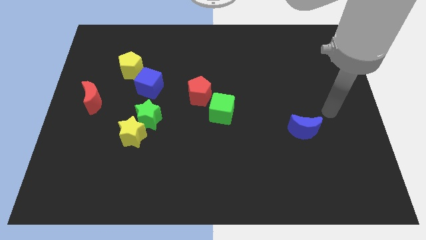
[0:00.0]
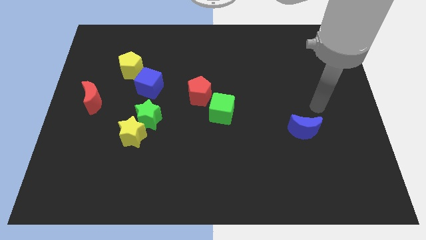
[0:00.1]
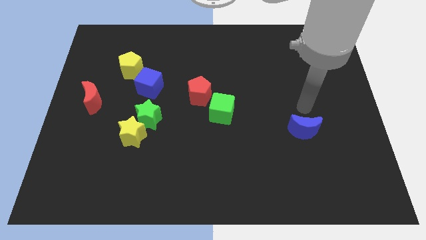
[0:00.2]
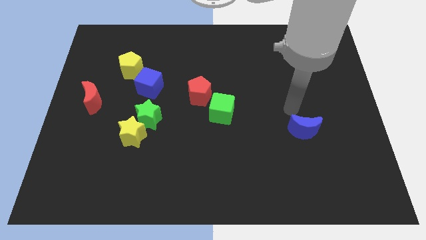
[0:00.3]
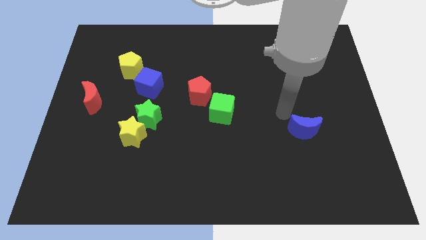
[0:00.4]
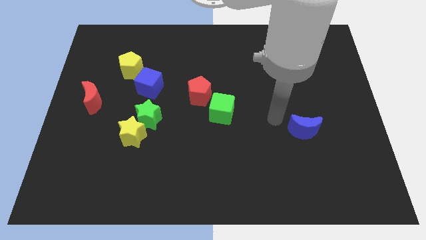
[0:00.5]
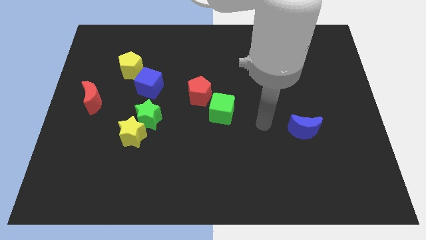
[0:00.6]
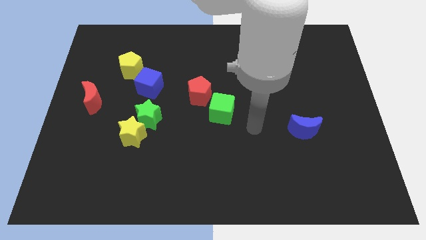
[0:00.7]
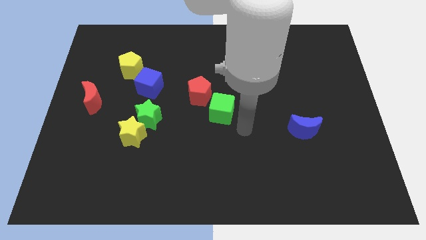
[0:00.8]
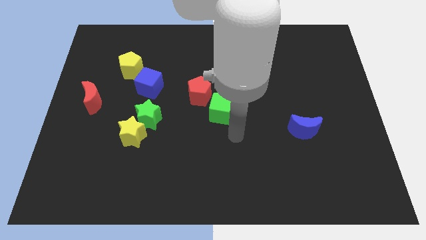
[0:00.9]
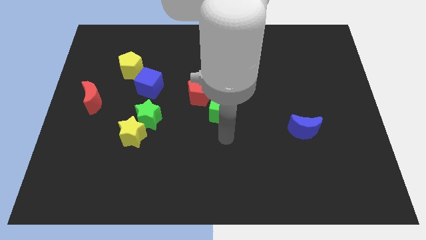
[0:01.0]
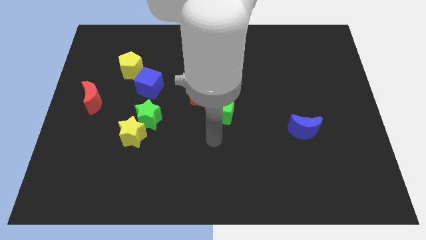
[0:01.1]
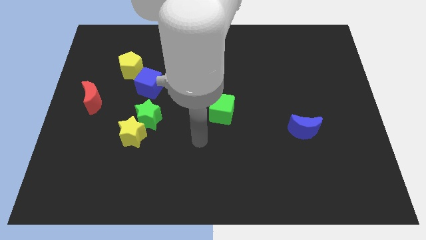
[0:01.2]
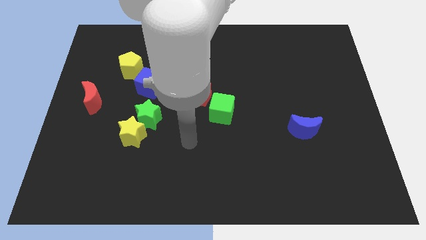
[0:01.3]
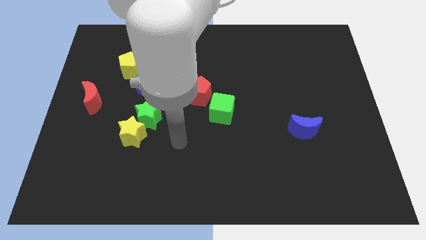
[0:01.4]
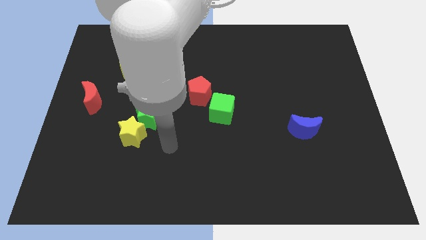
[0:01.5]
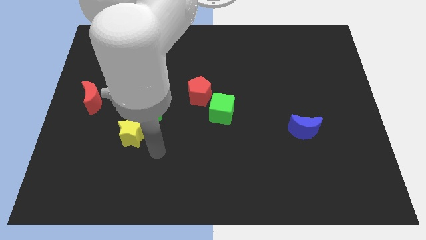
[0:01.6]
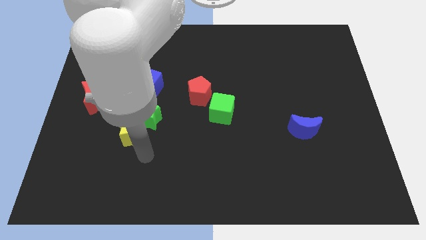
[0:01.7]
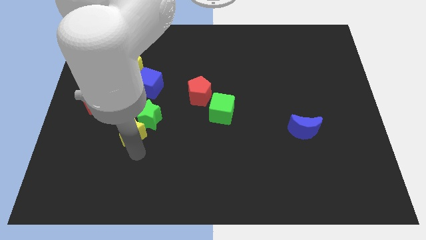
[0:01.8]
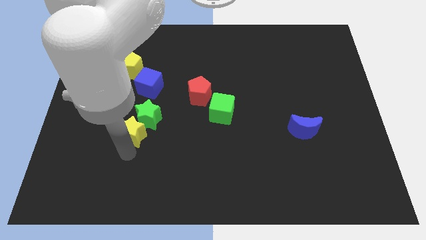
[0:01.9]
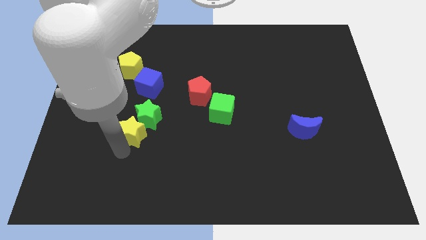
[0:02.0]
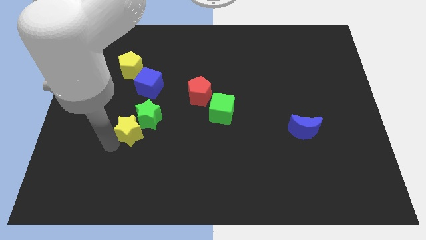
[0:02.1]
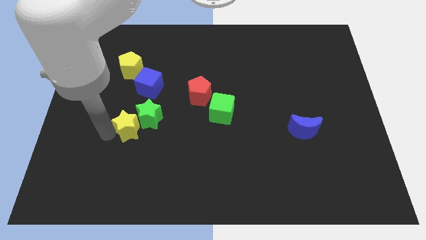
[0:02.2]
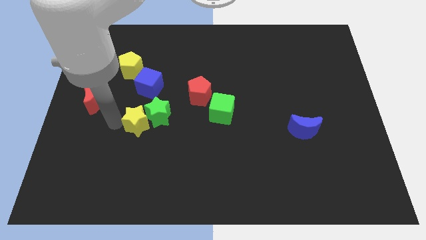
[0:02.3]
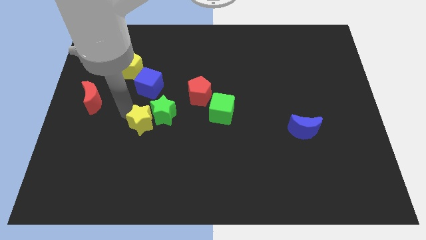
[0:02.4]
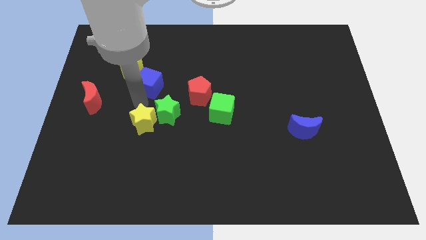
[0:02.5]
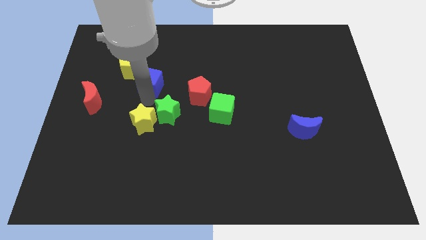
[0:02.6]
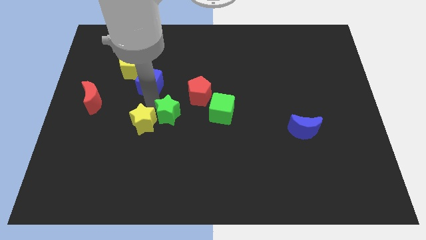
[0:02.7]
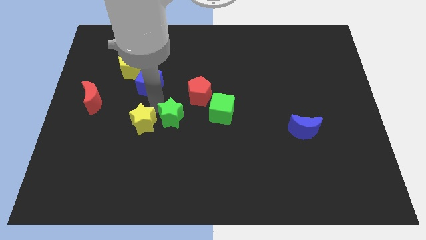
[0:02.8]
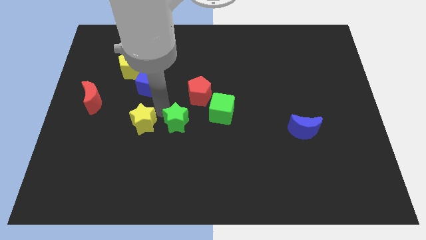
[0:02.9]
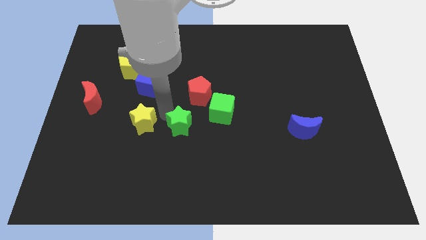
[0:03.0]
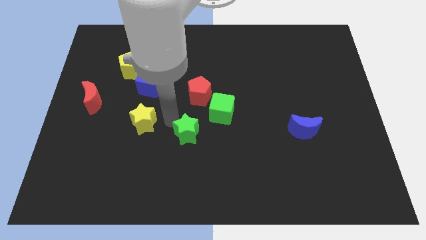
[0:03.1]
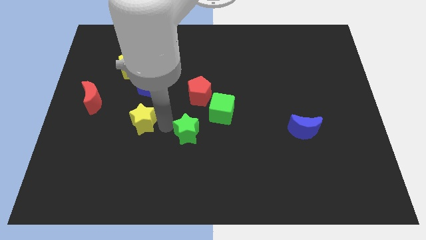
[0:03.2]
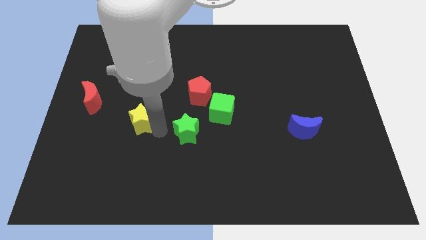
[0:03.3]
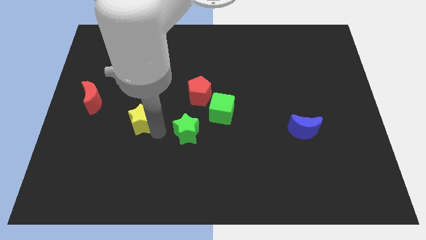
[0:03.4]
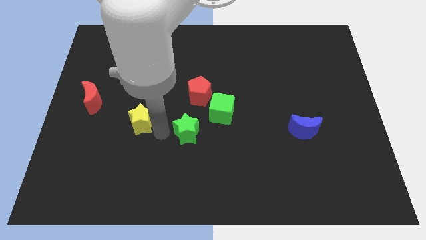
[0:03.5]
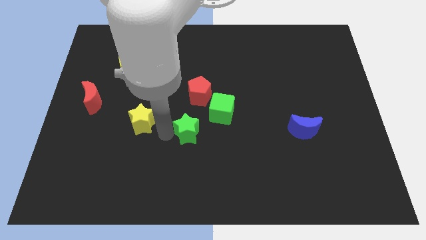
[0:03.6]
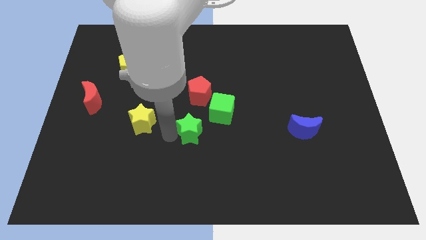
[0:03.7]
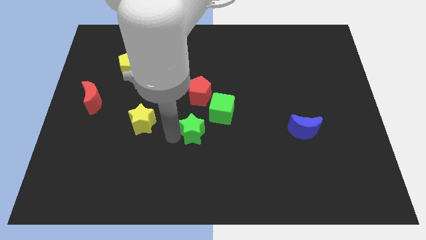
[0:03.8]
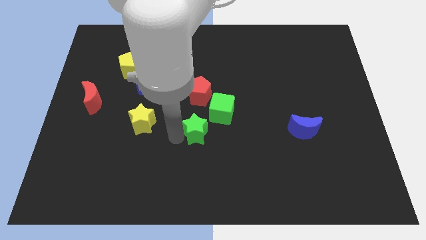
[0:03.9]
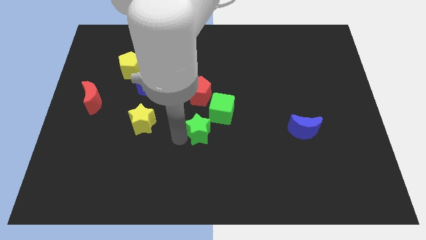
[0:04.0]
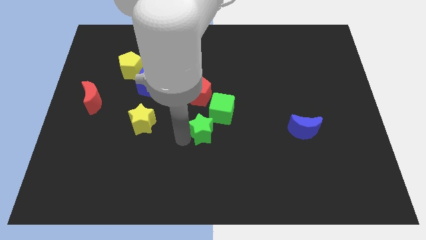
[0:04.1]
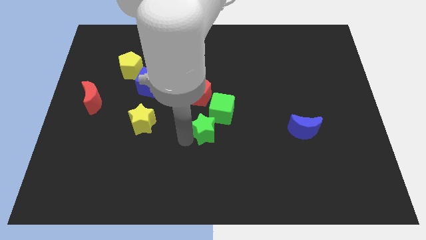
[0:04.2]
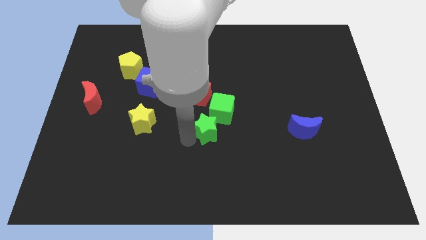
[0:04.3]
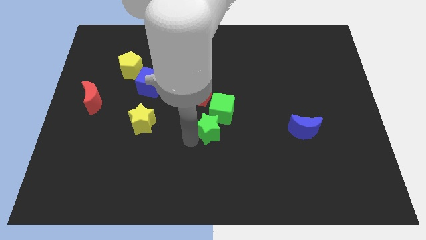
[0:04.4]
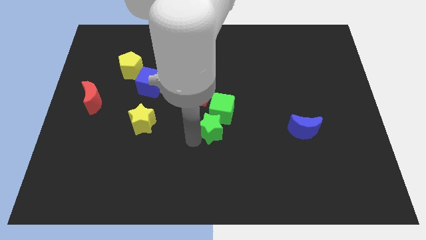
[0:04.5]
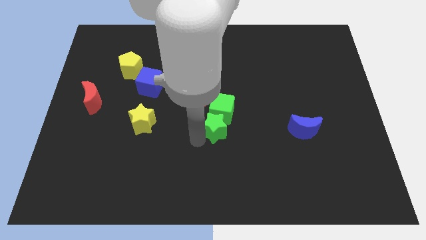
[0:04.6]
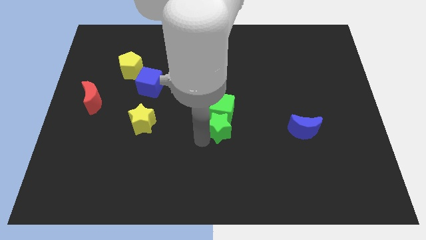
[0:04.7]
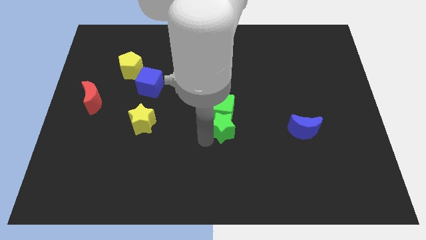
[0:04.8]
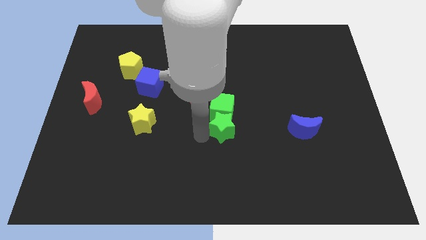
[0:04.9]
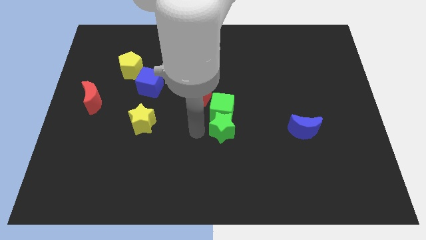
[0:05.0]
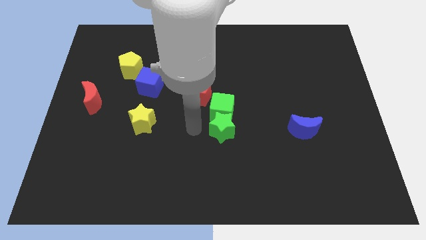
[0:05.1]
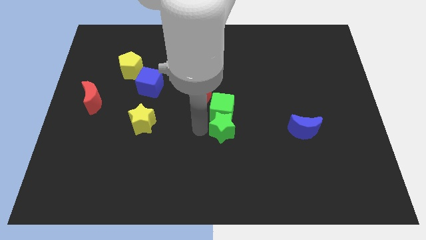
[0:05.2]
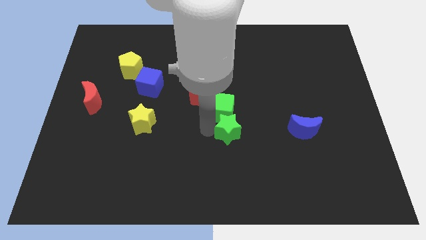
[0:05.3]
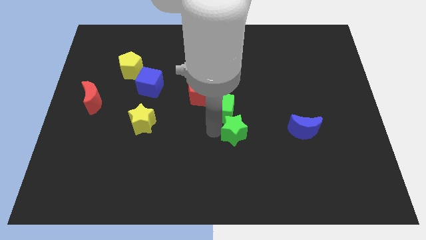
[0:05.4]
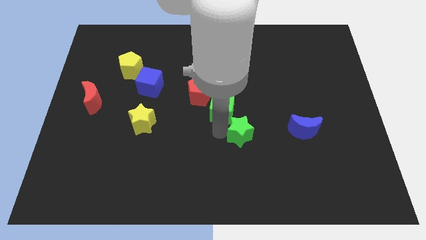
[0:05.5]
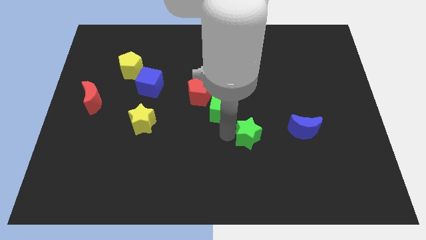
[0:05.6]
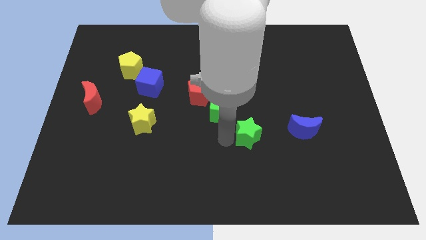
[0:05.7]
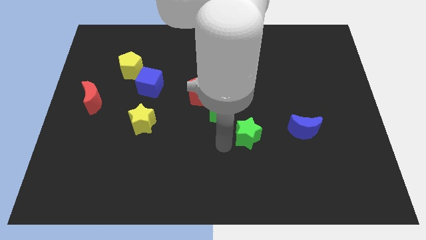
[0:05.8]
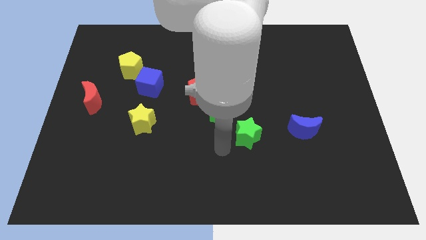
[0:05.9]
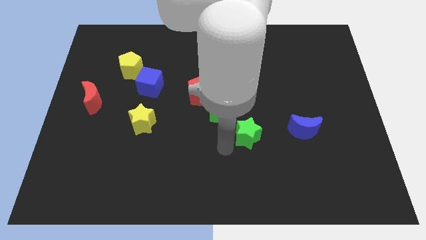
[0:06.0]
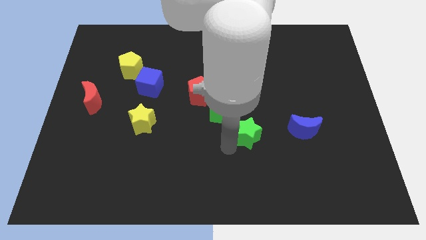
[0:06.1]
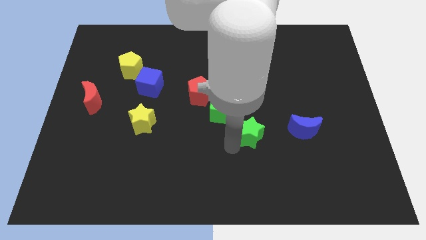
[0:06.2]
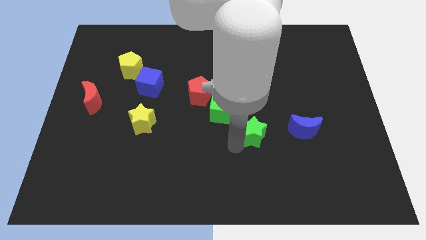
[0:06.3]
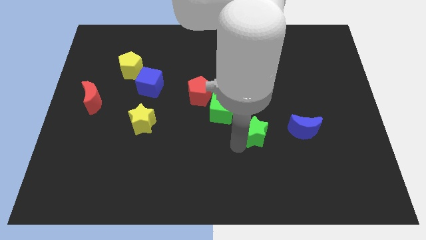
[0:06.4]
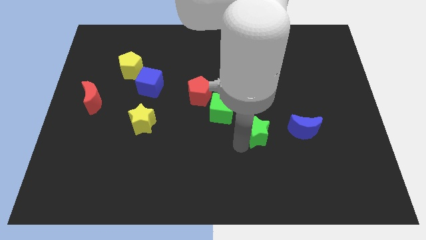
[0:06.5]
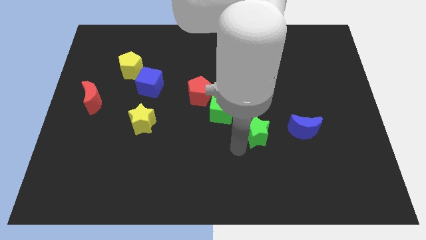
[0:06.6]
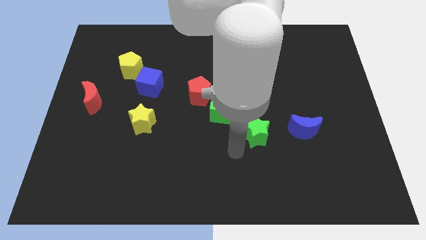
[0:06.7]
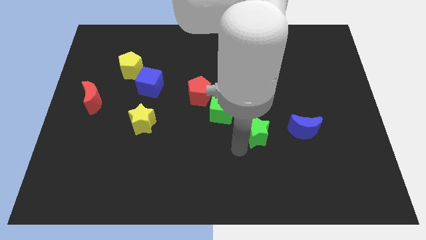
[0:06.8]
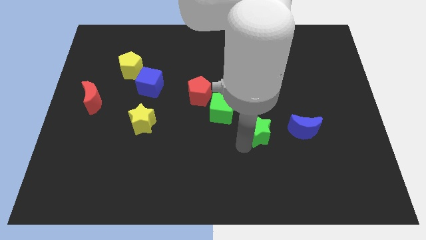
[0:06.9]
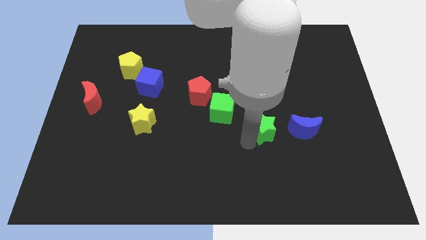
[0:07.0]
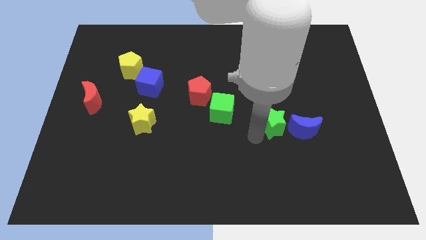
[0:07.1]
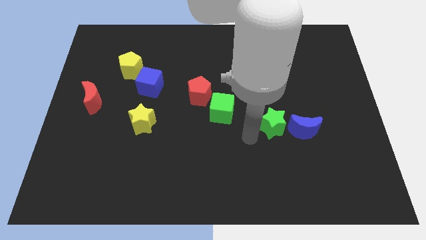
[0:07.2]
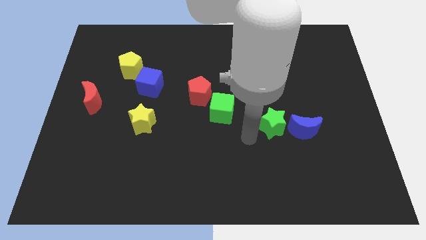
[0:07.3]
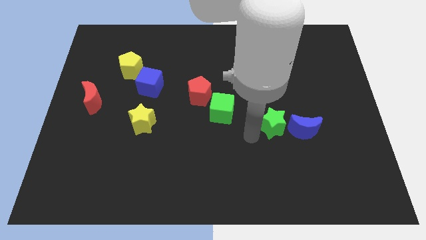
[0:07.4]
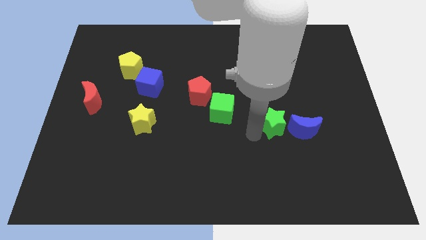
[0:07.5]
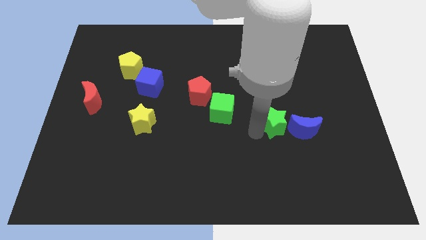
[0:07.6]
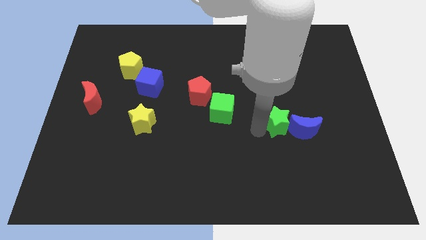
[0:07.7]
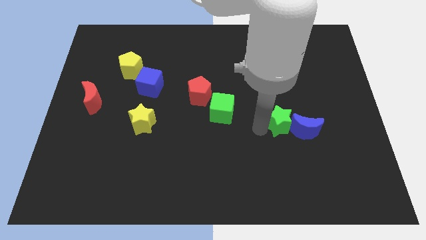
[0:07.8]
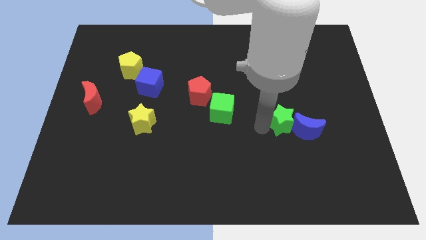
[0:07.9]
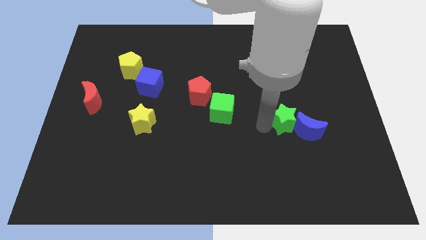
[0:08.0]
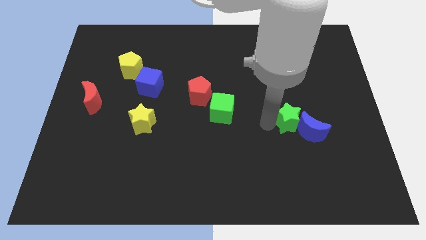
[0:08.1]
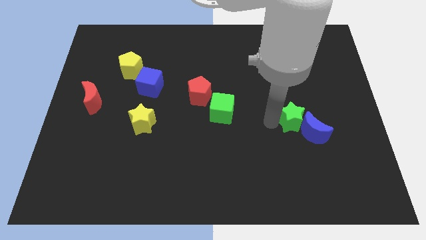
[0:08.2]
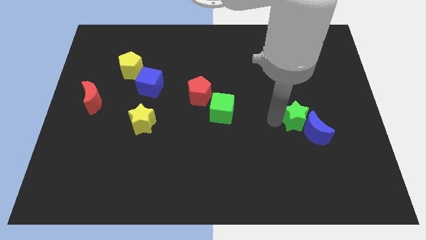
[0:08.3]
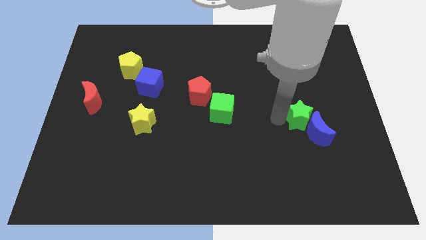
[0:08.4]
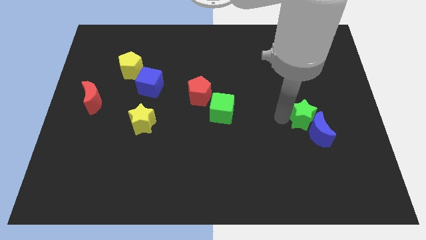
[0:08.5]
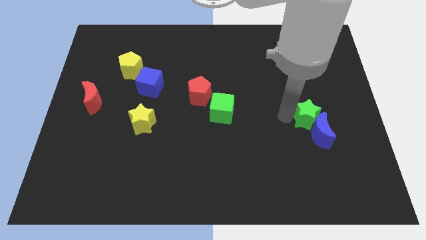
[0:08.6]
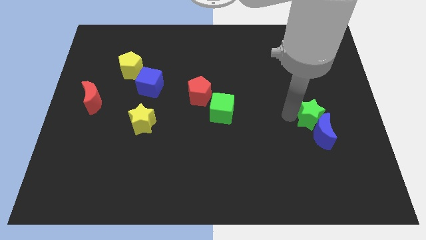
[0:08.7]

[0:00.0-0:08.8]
move the green star diagonally up and to the right of the blue moon
